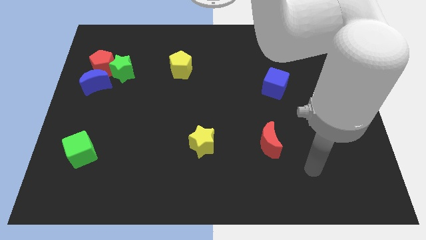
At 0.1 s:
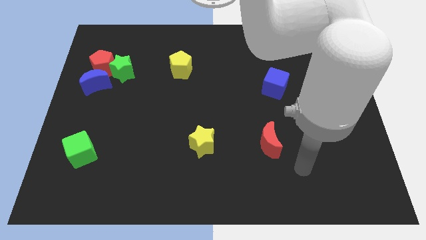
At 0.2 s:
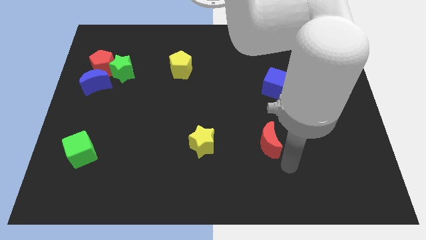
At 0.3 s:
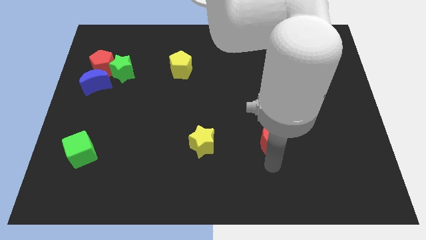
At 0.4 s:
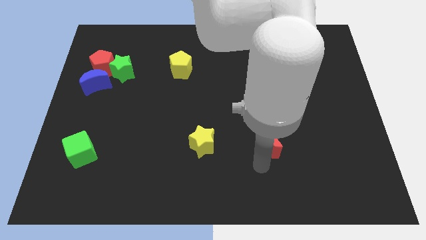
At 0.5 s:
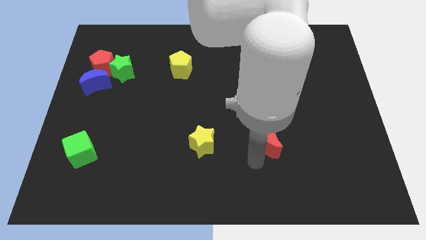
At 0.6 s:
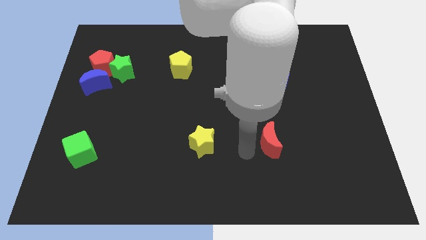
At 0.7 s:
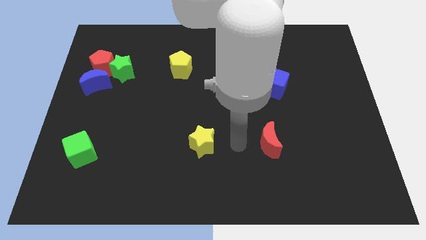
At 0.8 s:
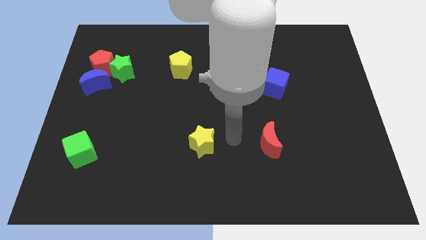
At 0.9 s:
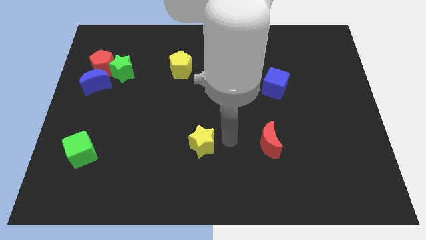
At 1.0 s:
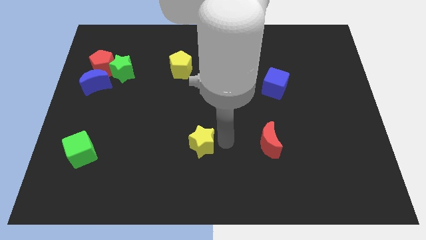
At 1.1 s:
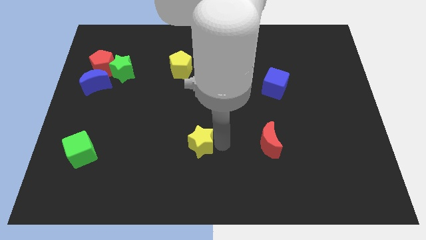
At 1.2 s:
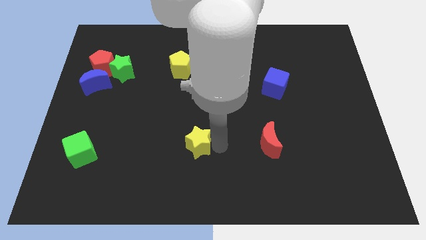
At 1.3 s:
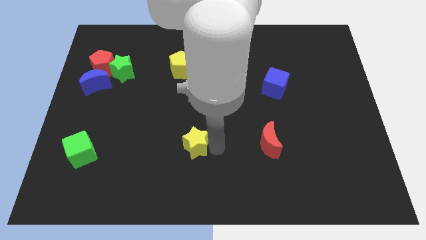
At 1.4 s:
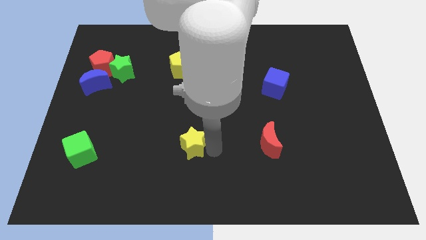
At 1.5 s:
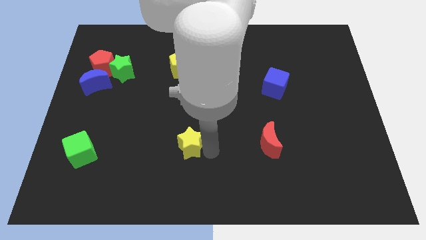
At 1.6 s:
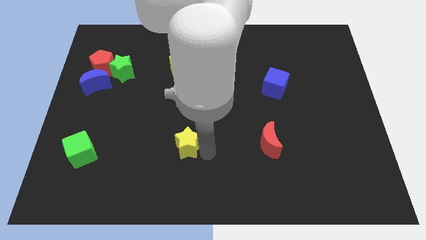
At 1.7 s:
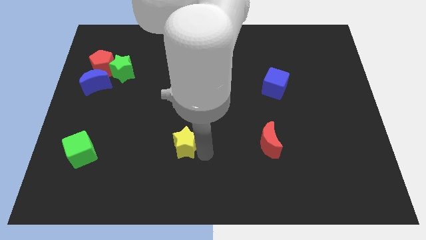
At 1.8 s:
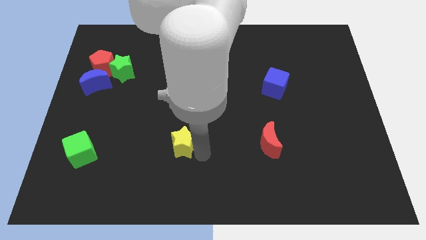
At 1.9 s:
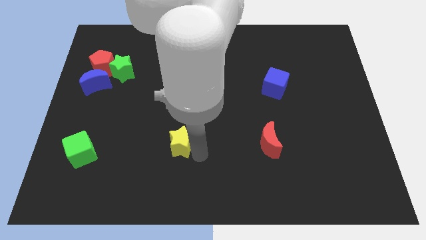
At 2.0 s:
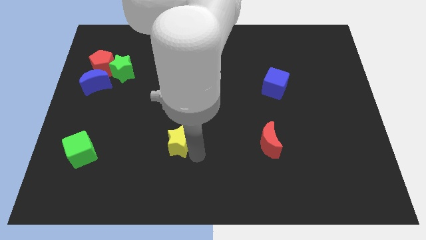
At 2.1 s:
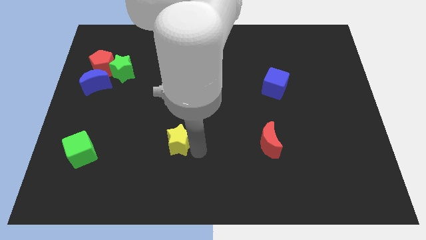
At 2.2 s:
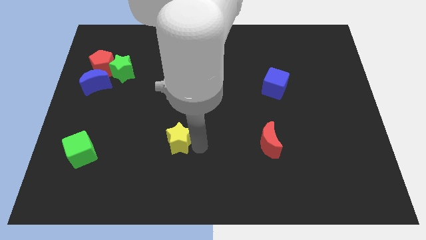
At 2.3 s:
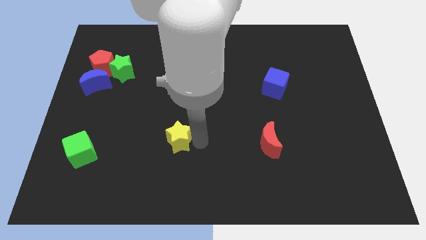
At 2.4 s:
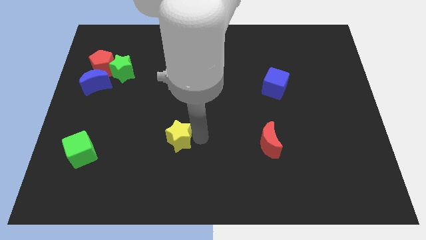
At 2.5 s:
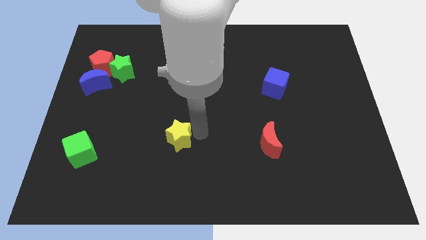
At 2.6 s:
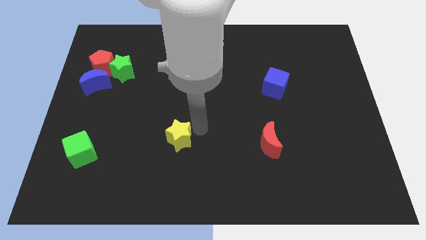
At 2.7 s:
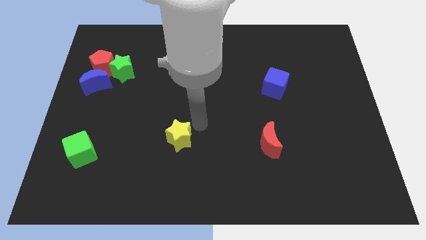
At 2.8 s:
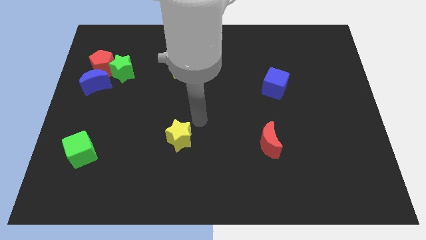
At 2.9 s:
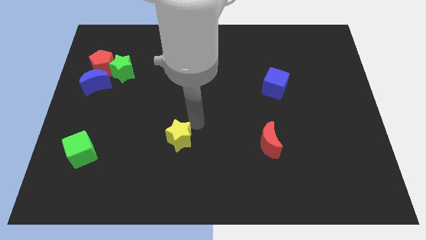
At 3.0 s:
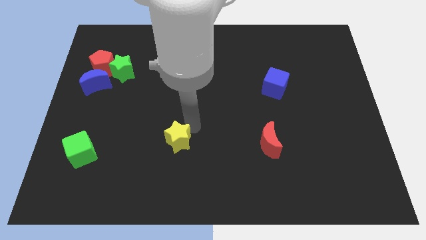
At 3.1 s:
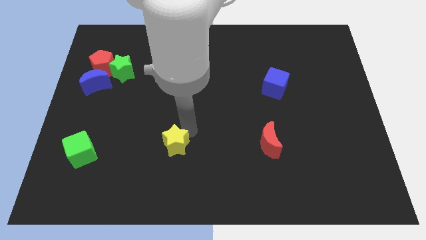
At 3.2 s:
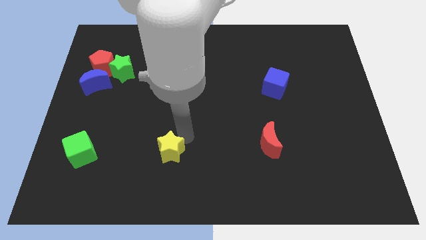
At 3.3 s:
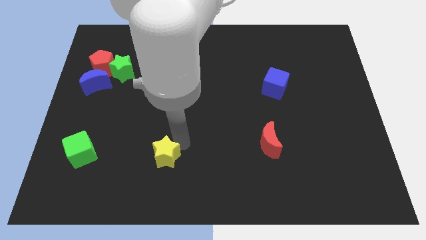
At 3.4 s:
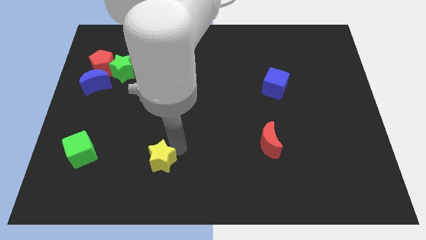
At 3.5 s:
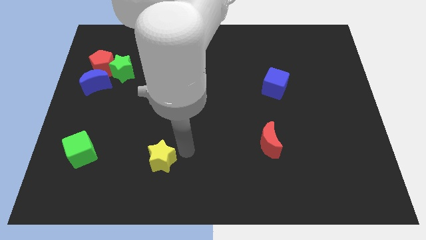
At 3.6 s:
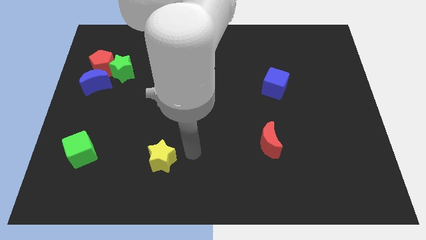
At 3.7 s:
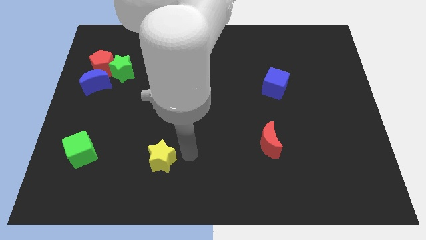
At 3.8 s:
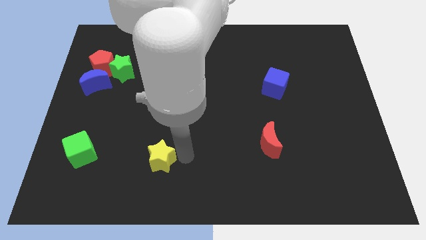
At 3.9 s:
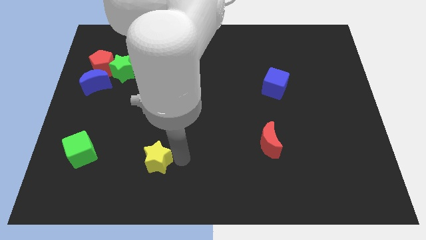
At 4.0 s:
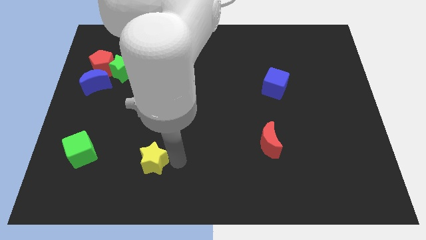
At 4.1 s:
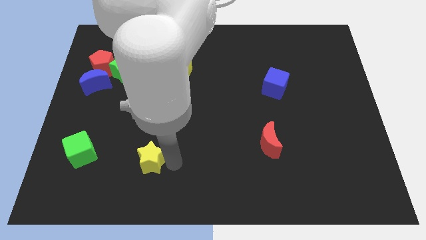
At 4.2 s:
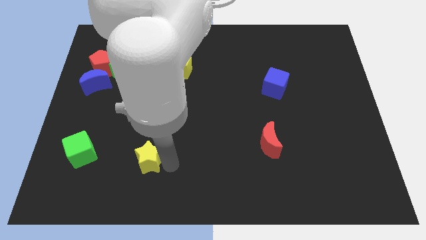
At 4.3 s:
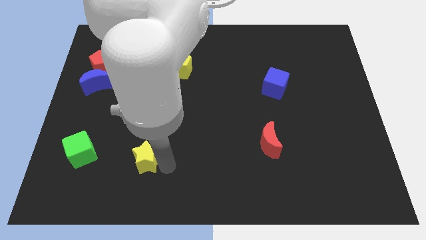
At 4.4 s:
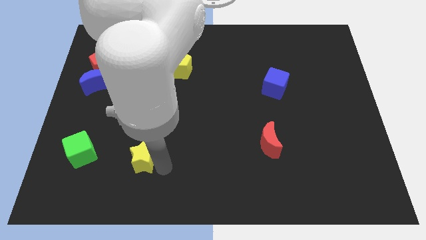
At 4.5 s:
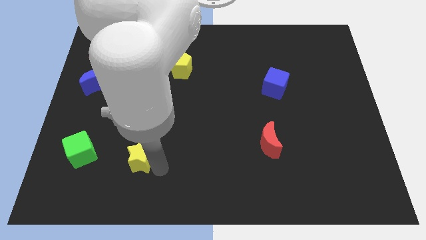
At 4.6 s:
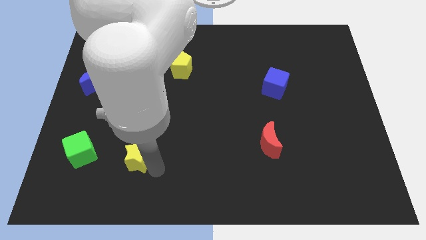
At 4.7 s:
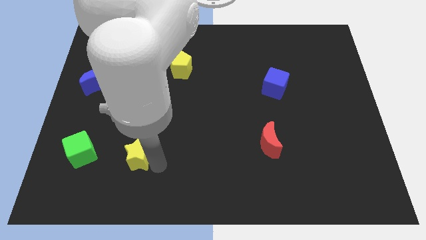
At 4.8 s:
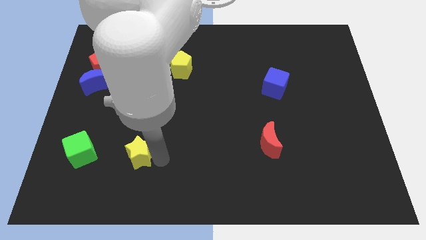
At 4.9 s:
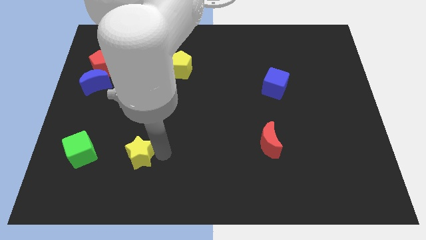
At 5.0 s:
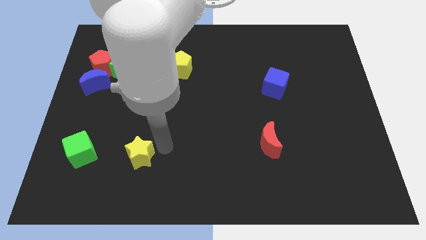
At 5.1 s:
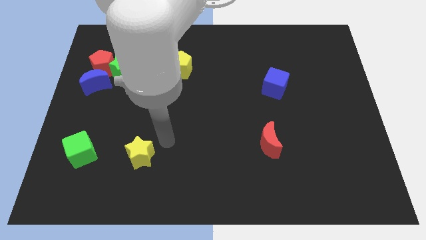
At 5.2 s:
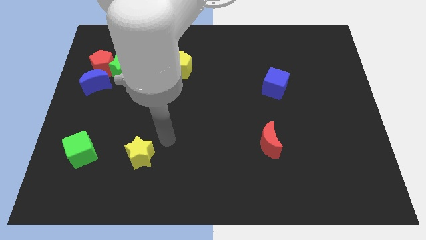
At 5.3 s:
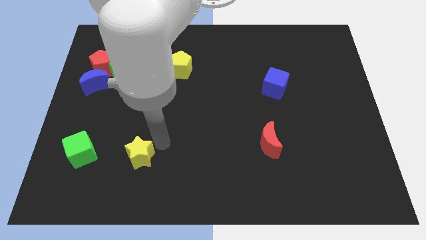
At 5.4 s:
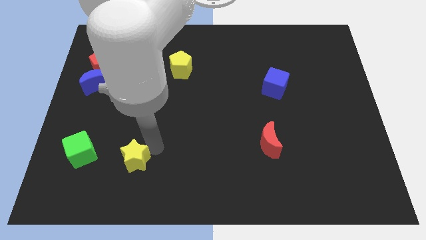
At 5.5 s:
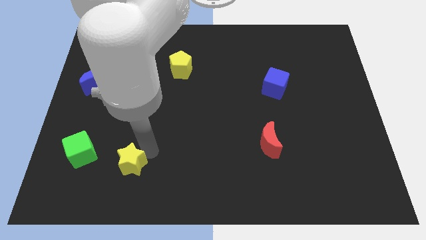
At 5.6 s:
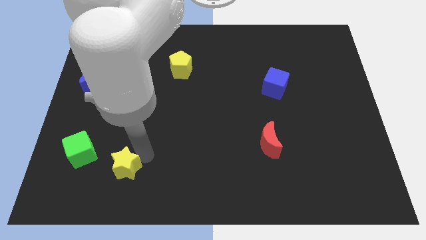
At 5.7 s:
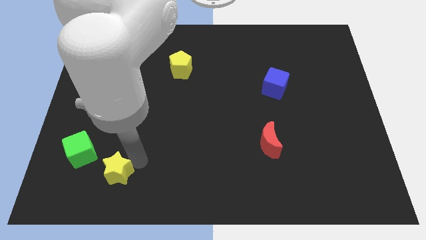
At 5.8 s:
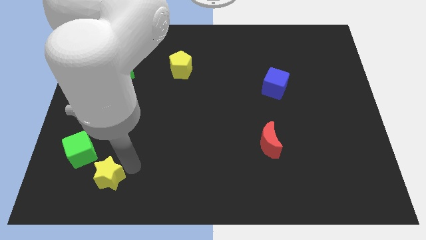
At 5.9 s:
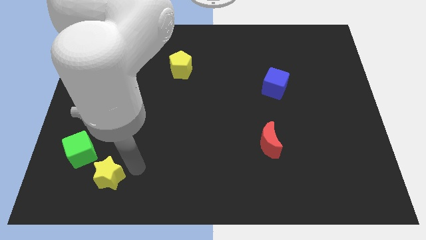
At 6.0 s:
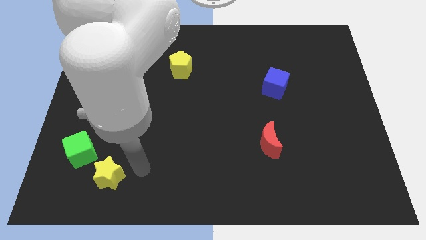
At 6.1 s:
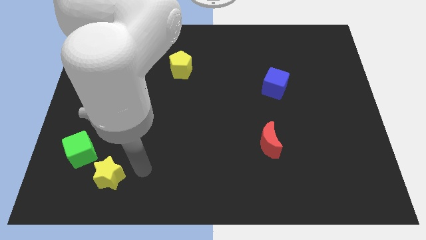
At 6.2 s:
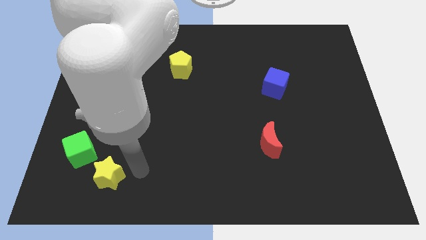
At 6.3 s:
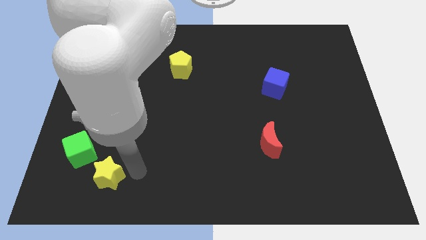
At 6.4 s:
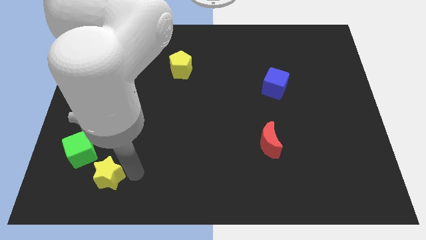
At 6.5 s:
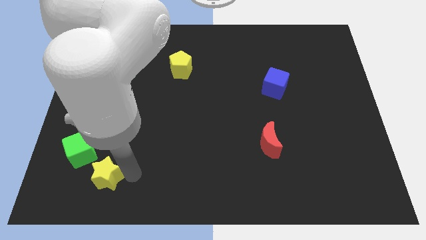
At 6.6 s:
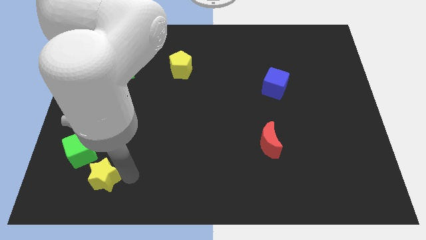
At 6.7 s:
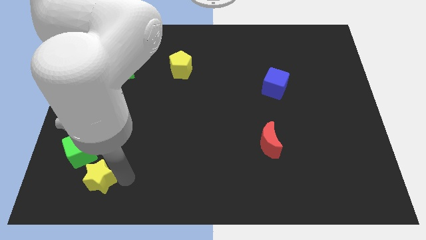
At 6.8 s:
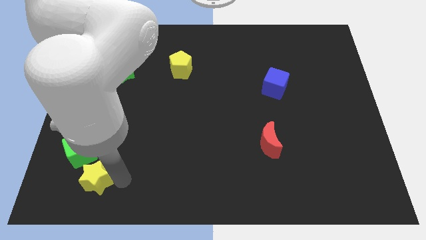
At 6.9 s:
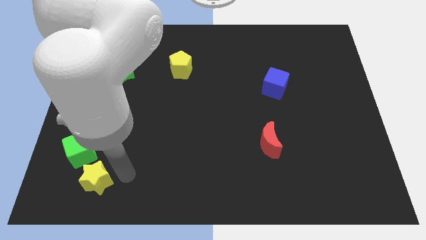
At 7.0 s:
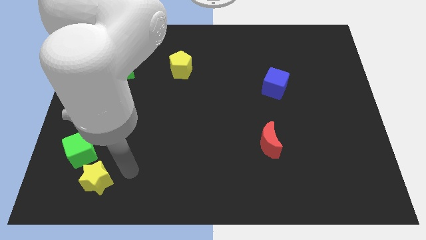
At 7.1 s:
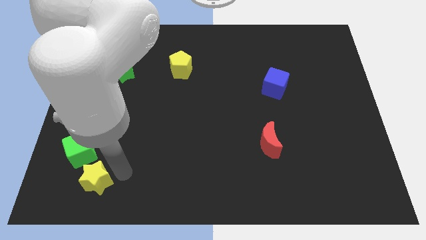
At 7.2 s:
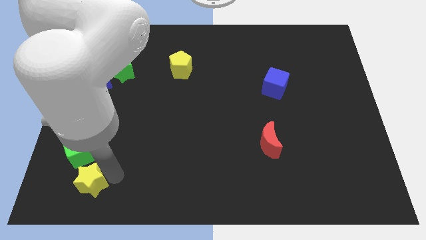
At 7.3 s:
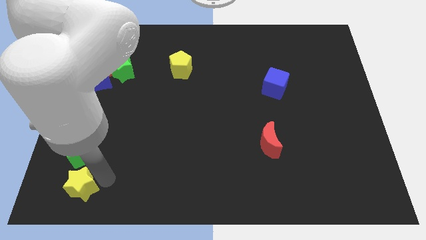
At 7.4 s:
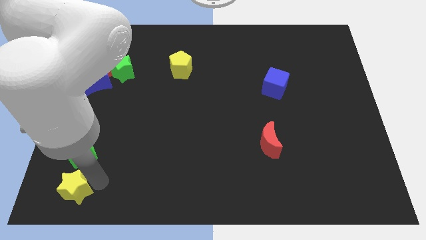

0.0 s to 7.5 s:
push the yellow star to the bottom left of the board

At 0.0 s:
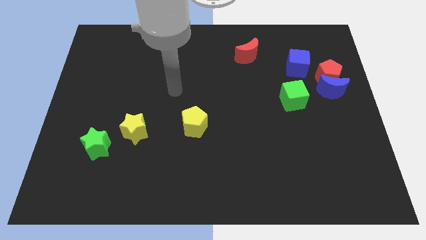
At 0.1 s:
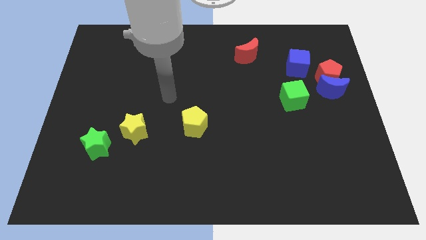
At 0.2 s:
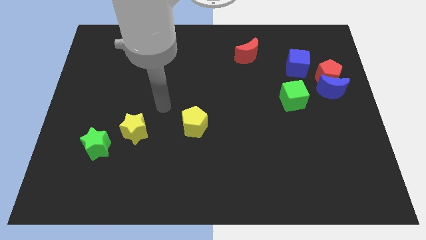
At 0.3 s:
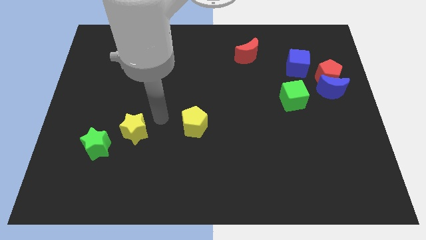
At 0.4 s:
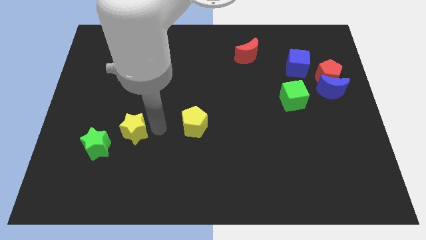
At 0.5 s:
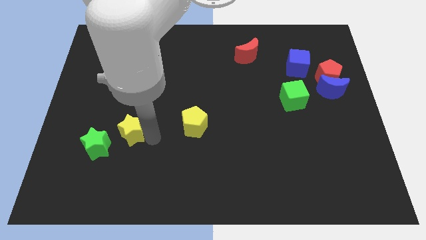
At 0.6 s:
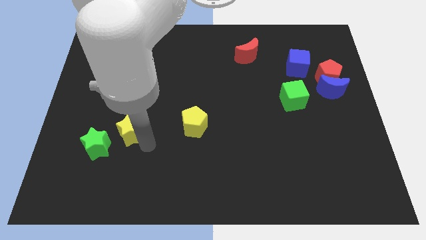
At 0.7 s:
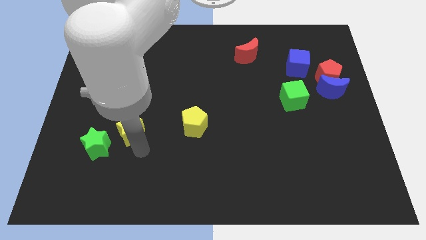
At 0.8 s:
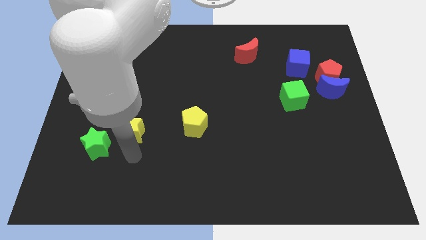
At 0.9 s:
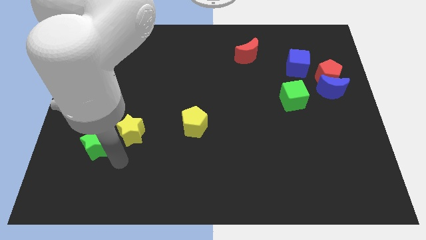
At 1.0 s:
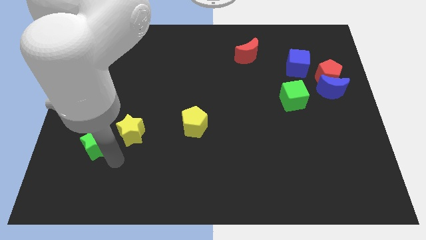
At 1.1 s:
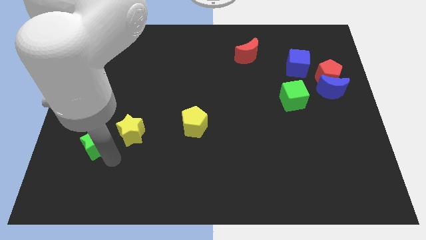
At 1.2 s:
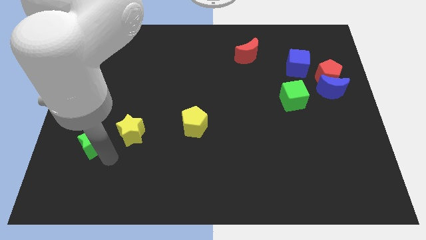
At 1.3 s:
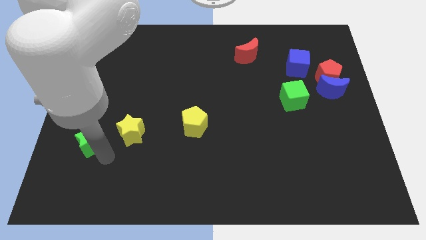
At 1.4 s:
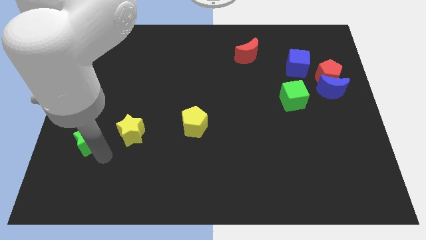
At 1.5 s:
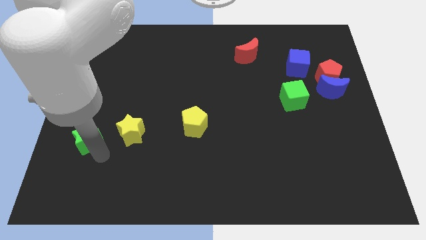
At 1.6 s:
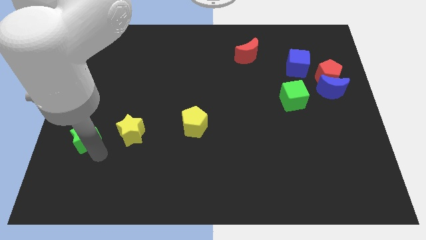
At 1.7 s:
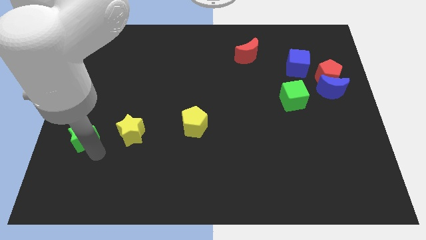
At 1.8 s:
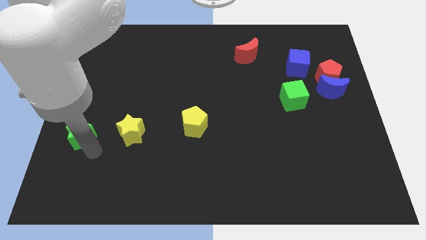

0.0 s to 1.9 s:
put the green star to the center left
